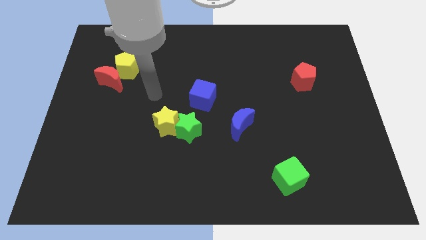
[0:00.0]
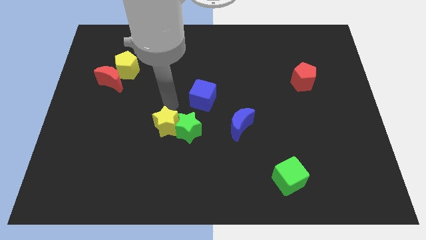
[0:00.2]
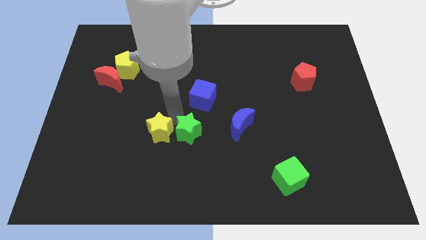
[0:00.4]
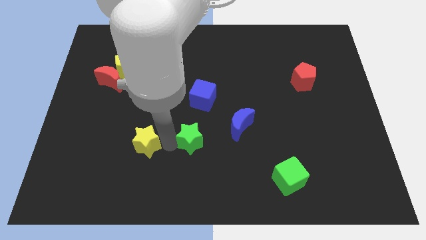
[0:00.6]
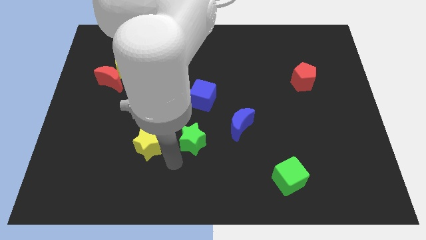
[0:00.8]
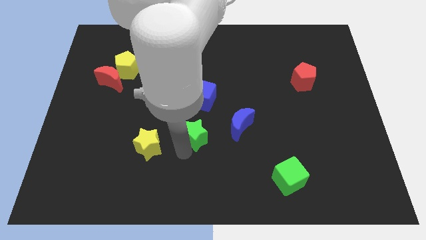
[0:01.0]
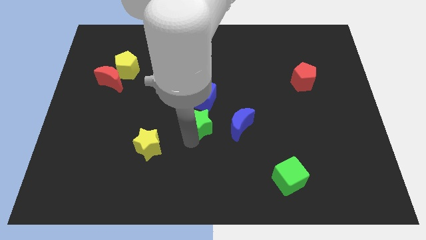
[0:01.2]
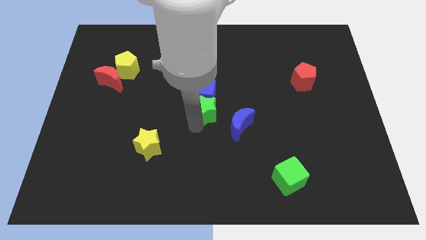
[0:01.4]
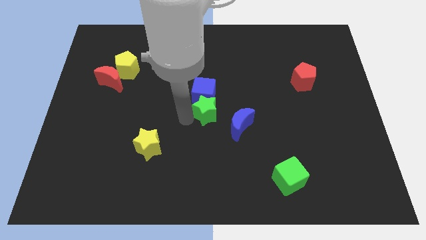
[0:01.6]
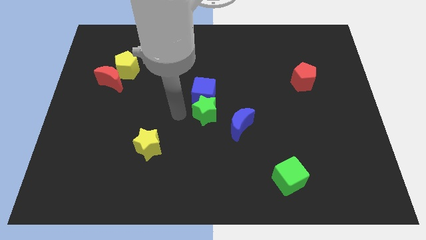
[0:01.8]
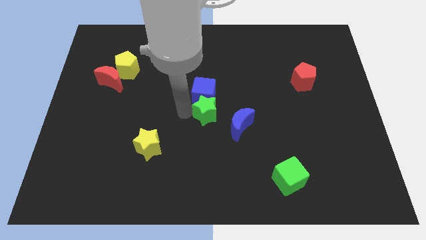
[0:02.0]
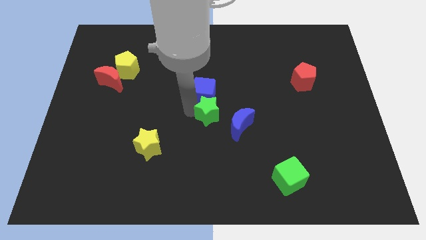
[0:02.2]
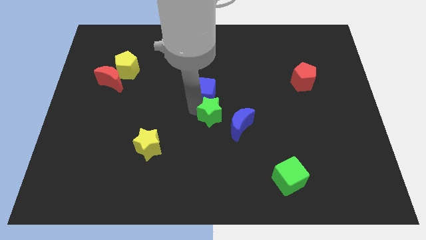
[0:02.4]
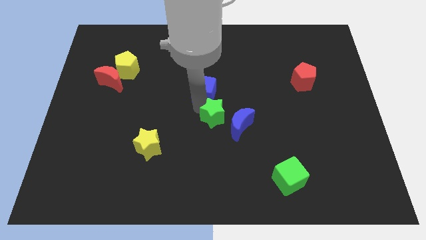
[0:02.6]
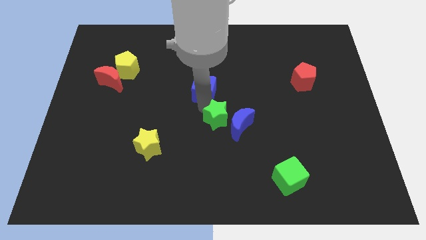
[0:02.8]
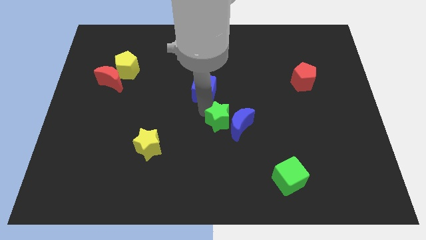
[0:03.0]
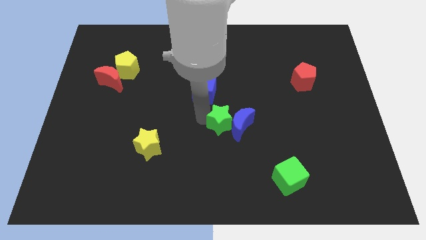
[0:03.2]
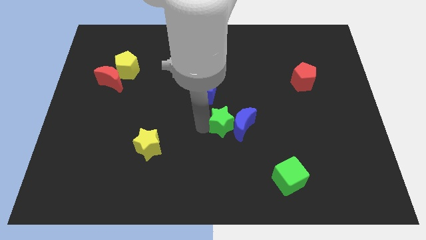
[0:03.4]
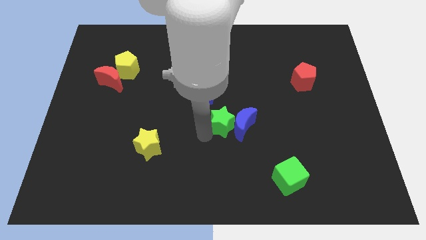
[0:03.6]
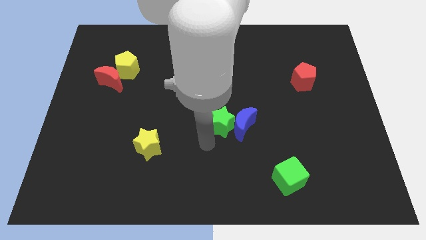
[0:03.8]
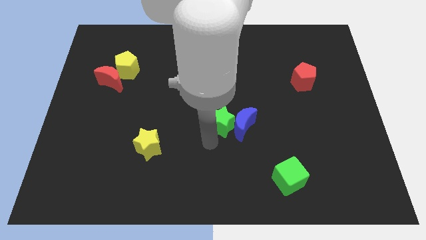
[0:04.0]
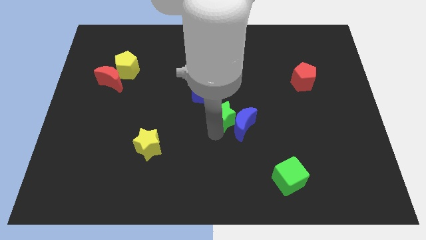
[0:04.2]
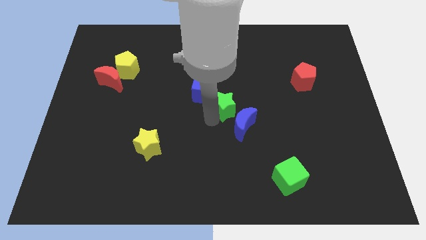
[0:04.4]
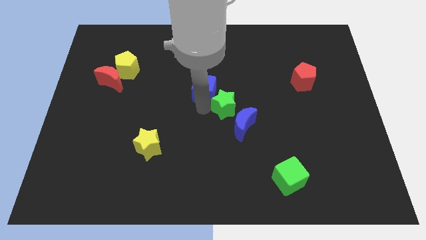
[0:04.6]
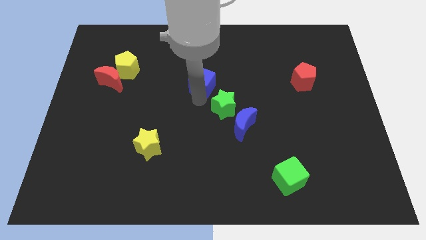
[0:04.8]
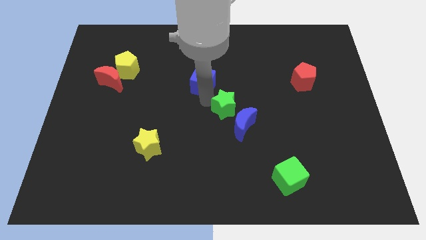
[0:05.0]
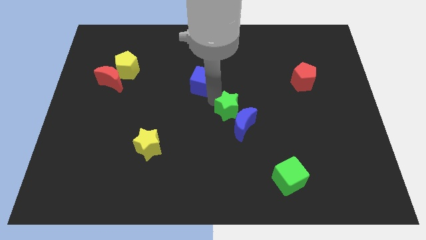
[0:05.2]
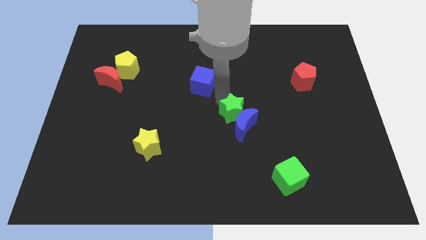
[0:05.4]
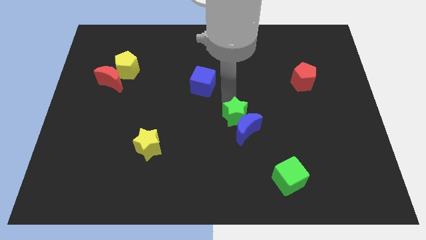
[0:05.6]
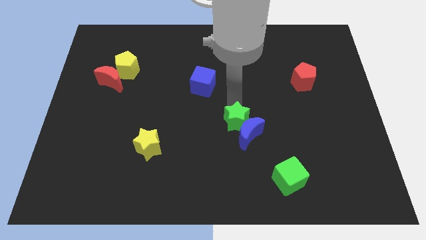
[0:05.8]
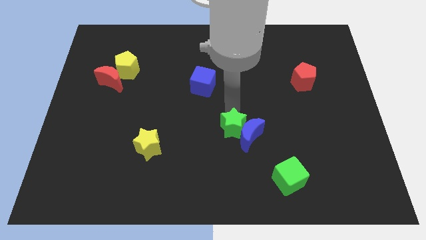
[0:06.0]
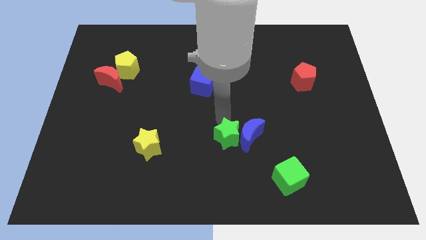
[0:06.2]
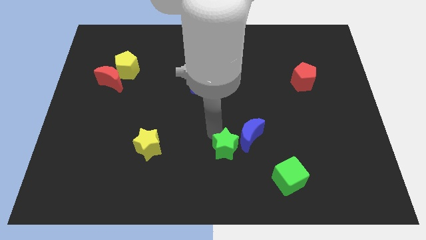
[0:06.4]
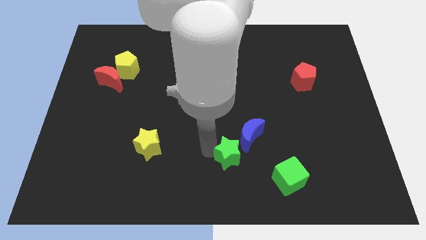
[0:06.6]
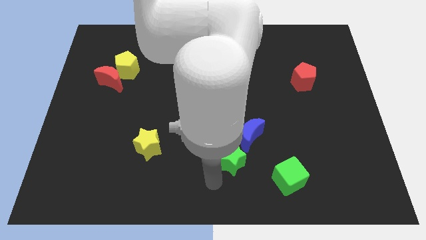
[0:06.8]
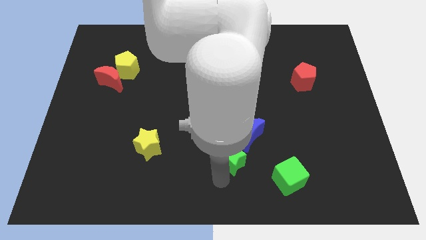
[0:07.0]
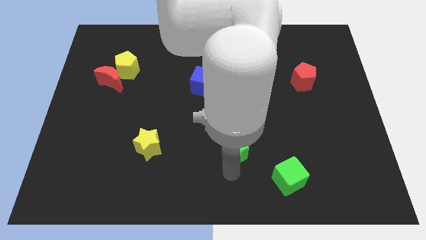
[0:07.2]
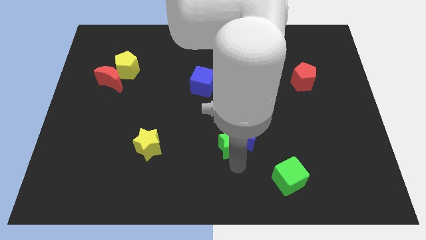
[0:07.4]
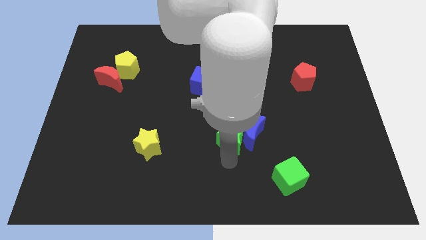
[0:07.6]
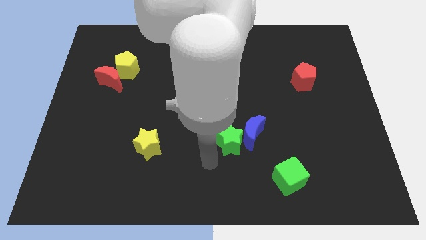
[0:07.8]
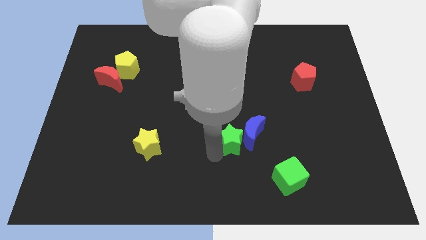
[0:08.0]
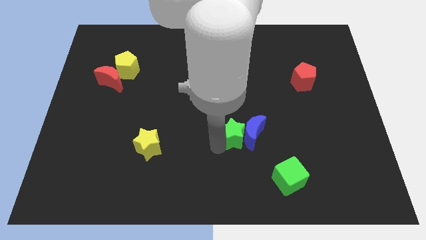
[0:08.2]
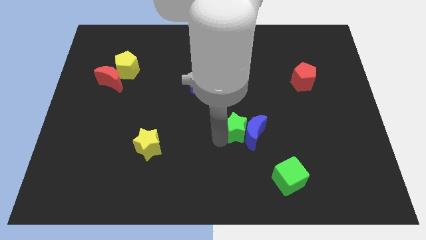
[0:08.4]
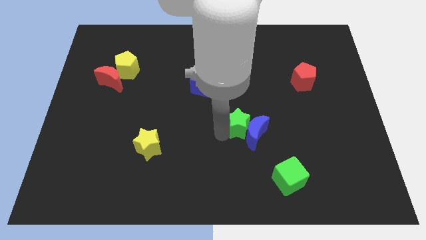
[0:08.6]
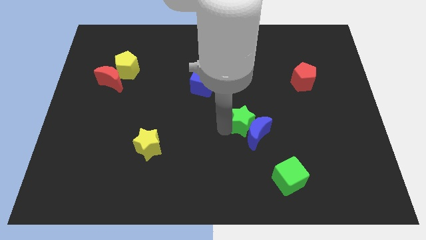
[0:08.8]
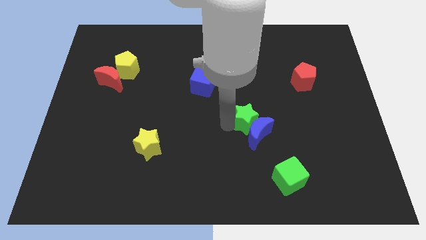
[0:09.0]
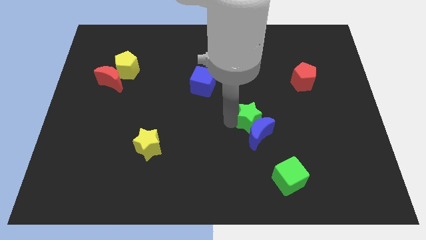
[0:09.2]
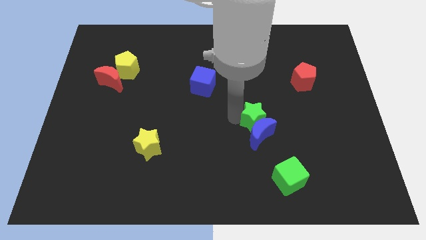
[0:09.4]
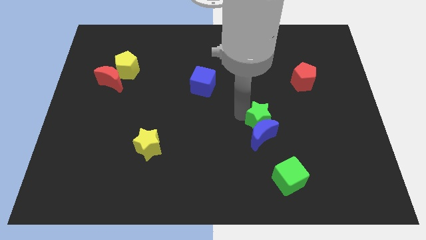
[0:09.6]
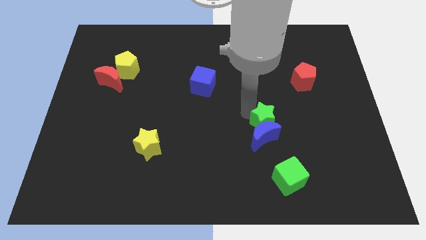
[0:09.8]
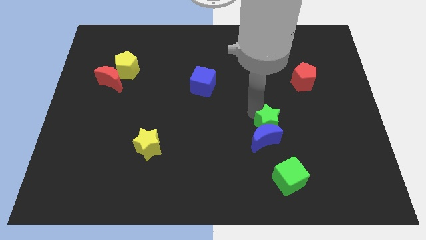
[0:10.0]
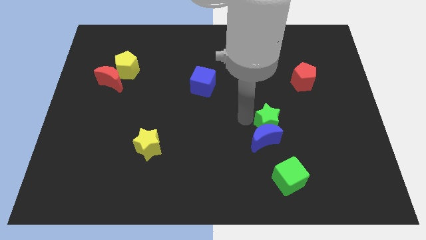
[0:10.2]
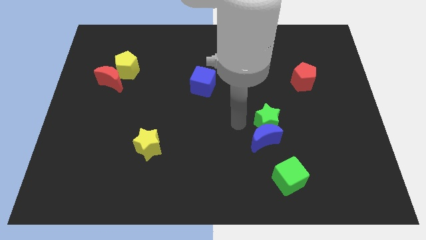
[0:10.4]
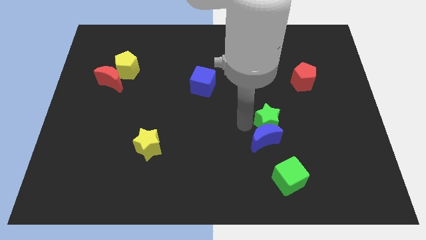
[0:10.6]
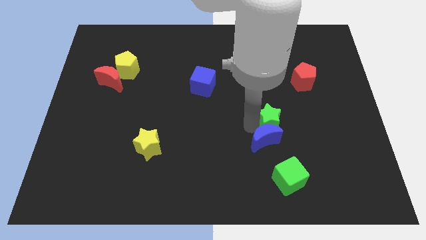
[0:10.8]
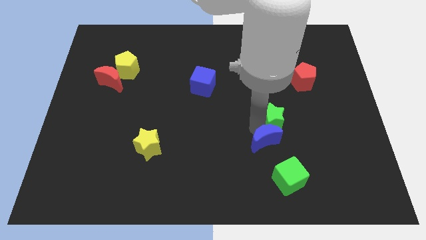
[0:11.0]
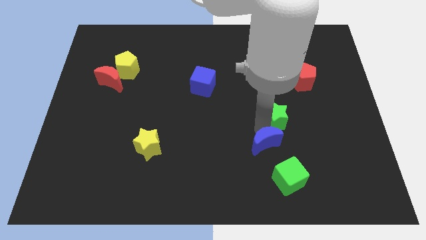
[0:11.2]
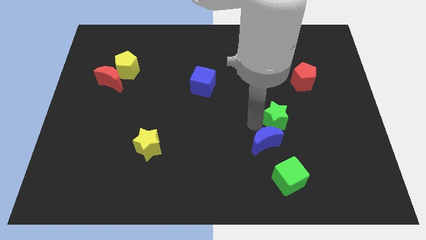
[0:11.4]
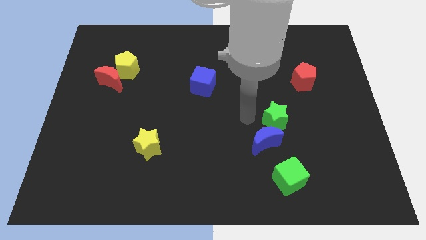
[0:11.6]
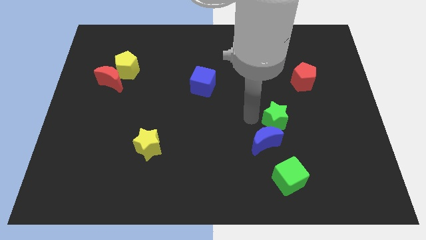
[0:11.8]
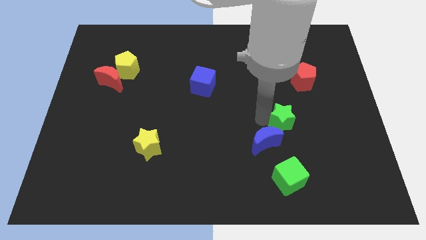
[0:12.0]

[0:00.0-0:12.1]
slide the green star right

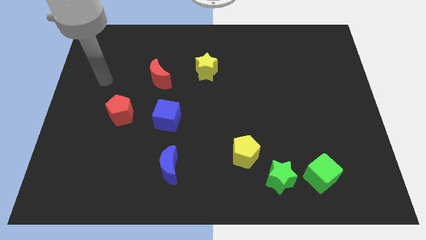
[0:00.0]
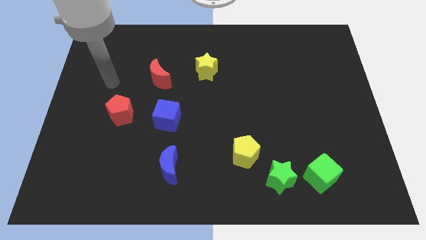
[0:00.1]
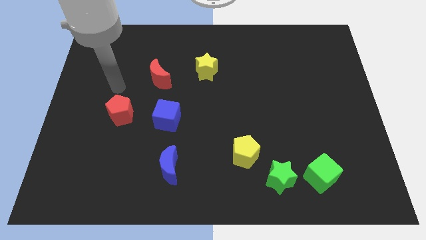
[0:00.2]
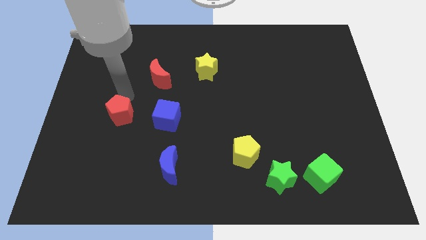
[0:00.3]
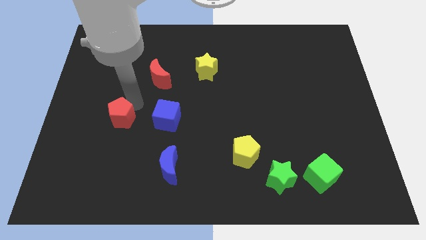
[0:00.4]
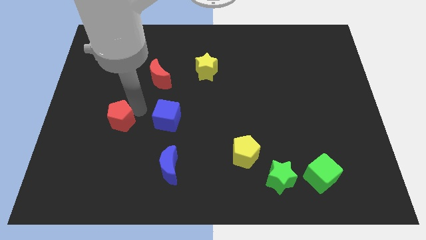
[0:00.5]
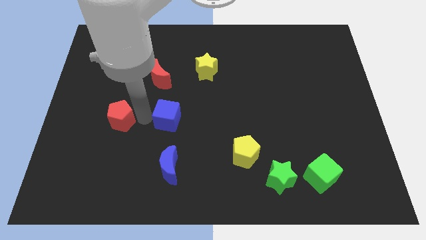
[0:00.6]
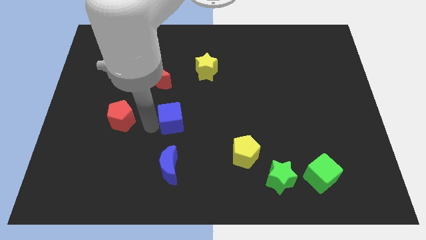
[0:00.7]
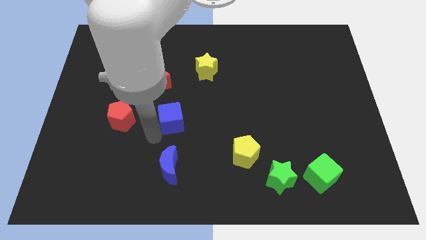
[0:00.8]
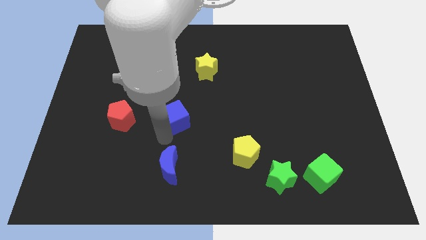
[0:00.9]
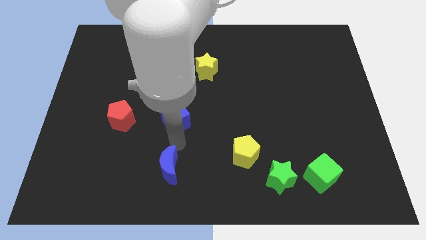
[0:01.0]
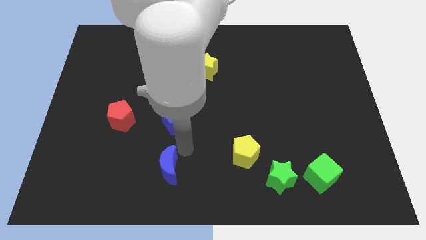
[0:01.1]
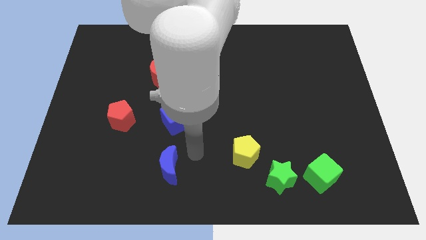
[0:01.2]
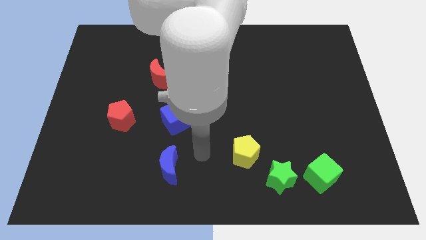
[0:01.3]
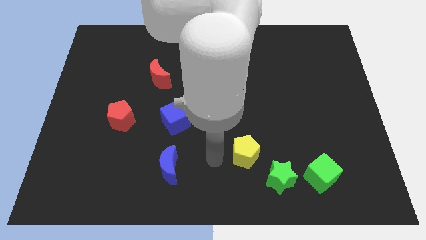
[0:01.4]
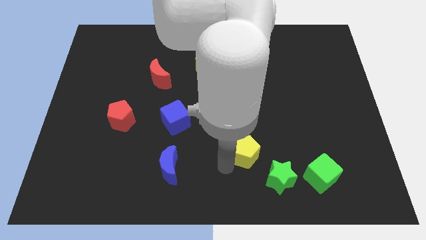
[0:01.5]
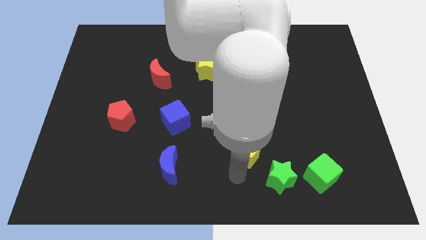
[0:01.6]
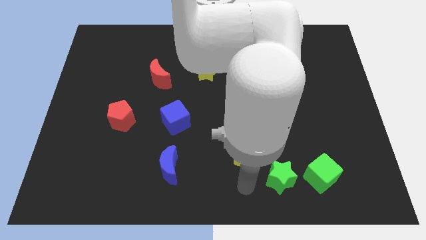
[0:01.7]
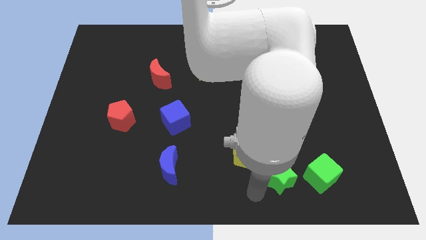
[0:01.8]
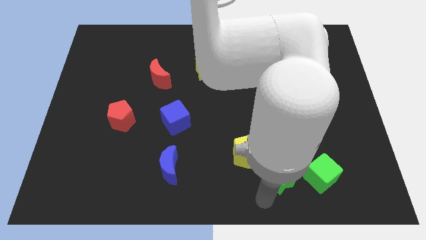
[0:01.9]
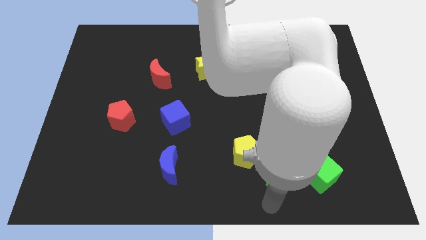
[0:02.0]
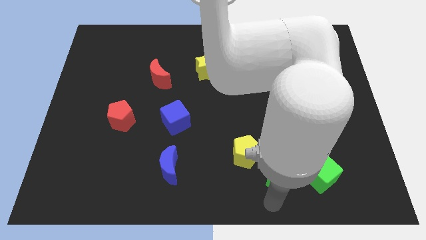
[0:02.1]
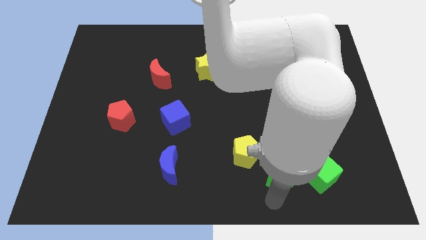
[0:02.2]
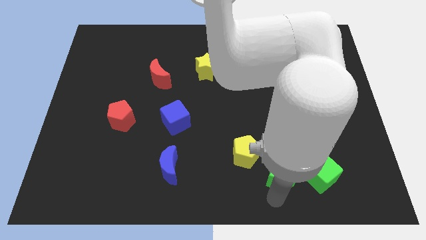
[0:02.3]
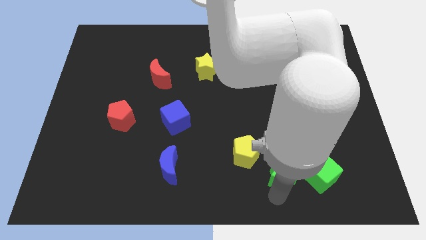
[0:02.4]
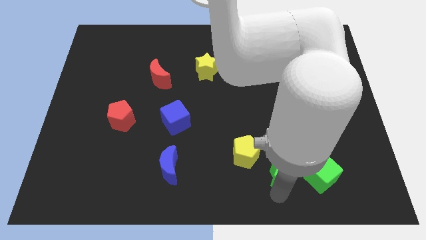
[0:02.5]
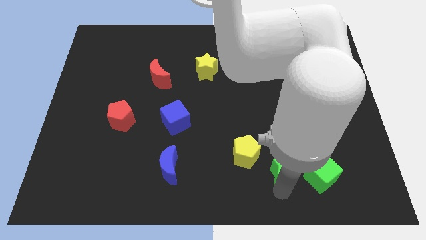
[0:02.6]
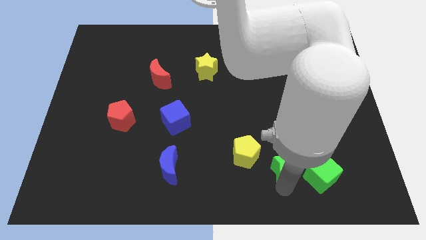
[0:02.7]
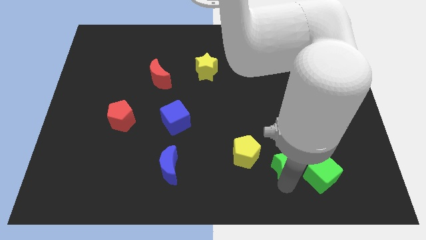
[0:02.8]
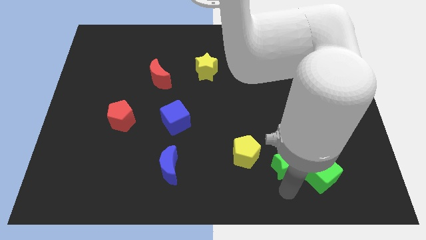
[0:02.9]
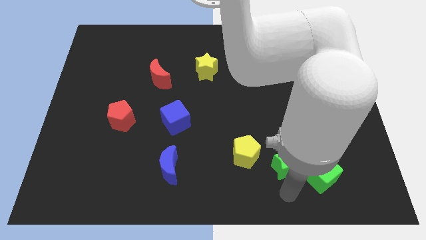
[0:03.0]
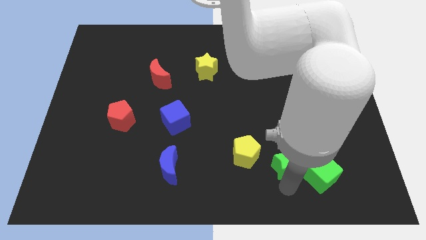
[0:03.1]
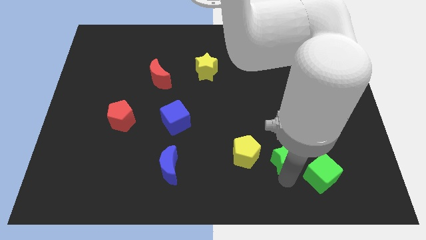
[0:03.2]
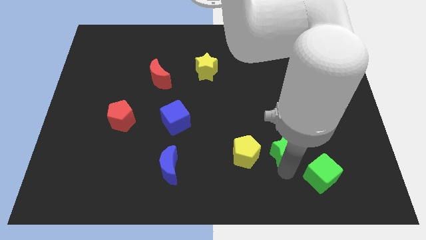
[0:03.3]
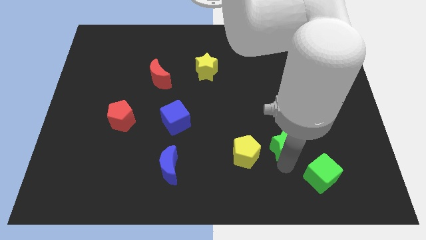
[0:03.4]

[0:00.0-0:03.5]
slide the green star up slightly
